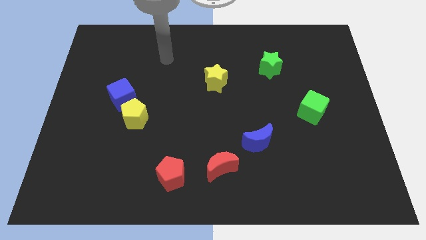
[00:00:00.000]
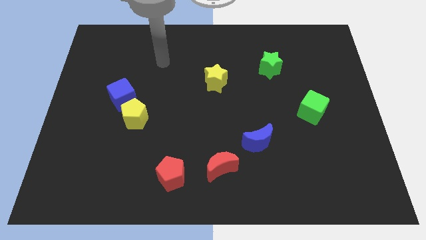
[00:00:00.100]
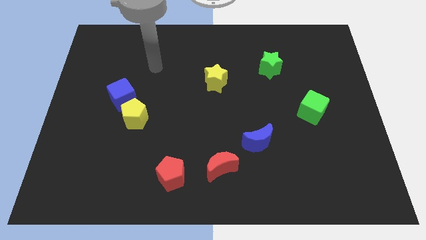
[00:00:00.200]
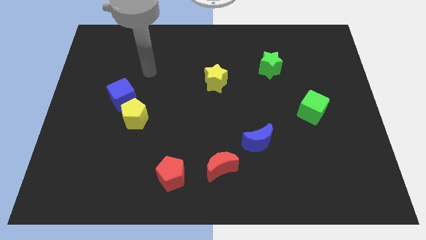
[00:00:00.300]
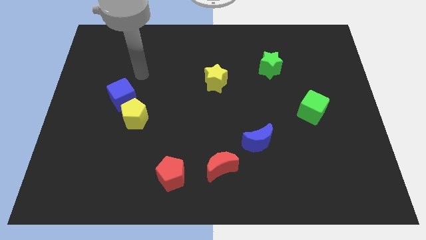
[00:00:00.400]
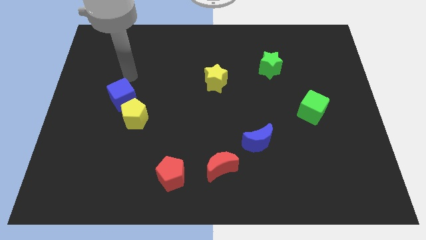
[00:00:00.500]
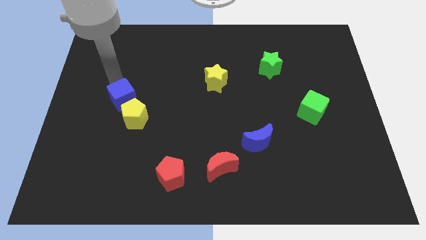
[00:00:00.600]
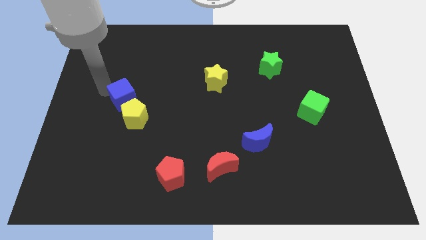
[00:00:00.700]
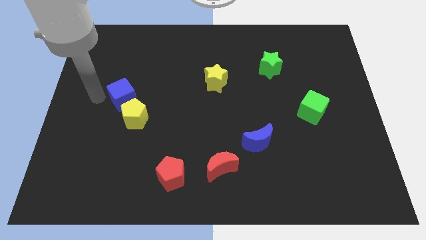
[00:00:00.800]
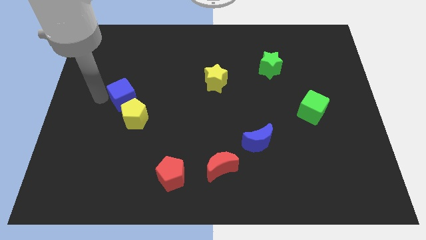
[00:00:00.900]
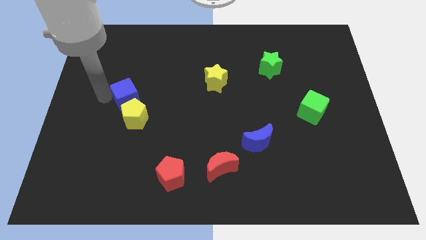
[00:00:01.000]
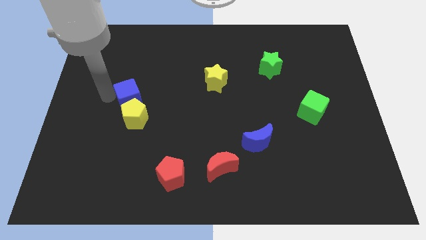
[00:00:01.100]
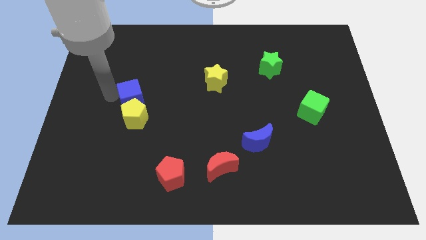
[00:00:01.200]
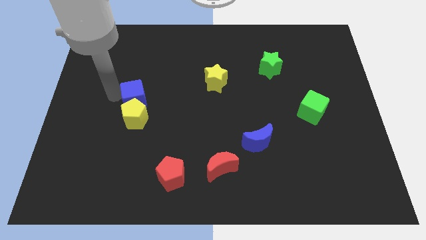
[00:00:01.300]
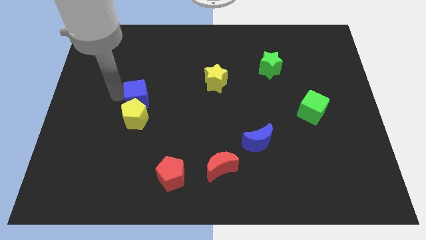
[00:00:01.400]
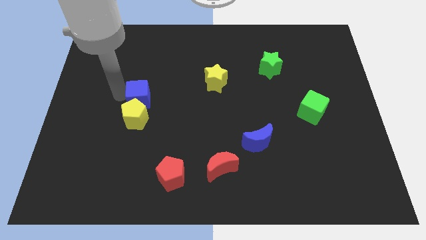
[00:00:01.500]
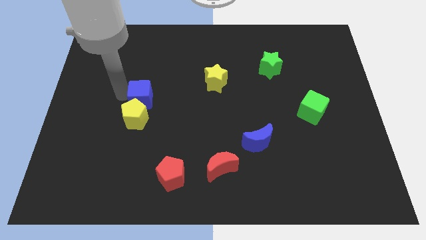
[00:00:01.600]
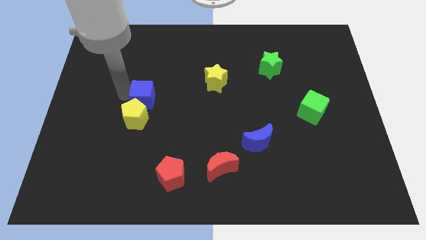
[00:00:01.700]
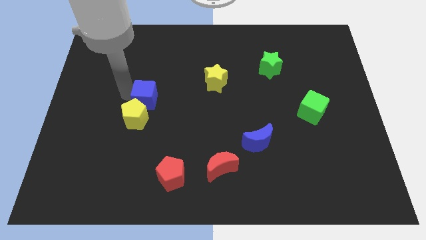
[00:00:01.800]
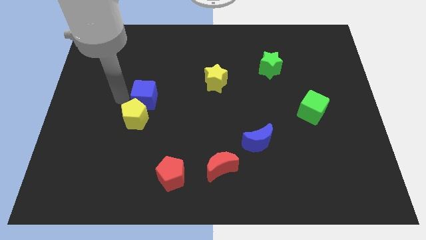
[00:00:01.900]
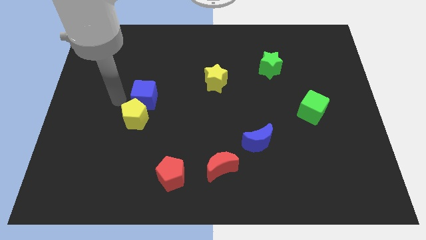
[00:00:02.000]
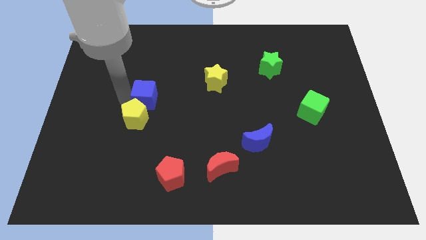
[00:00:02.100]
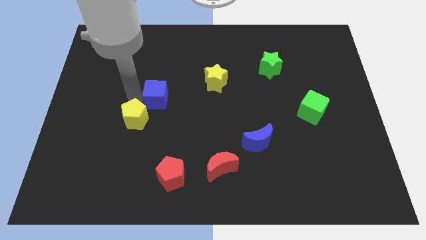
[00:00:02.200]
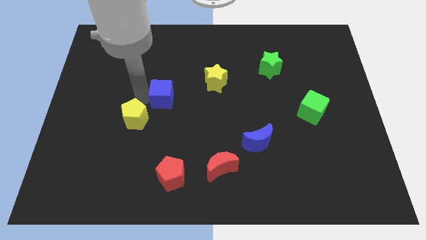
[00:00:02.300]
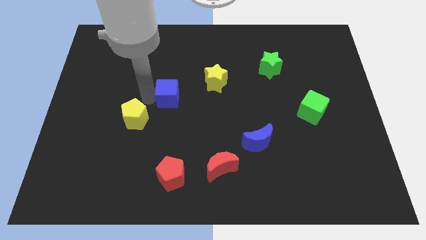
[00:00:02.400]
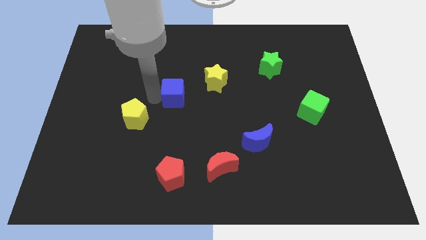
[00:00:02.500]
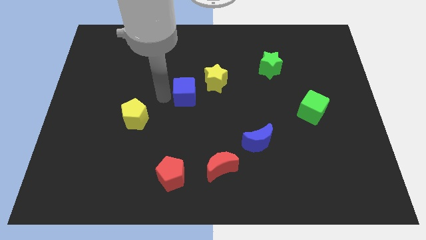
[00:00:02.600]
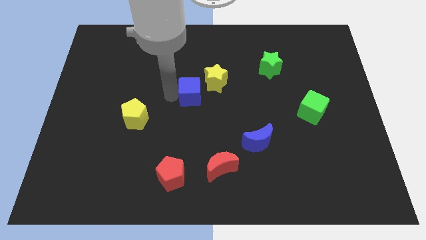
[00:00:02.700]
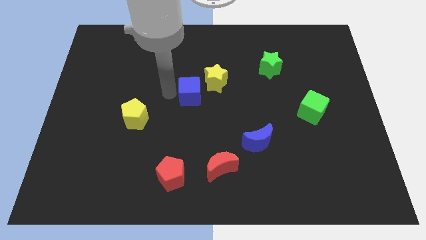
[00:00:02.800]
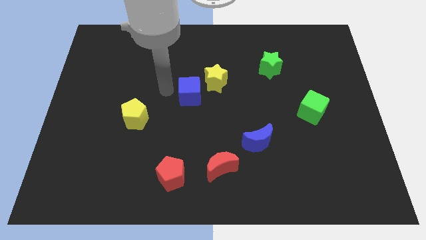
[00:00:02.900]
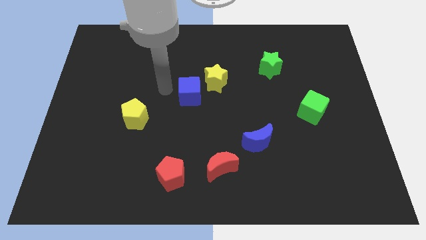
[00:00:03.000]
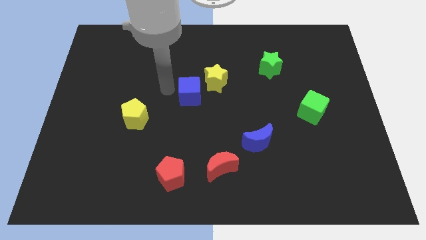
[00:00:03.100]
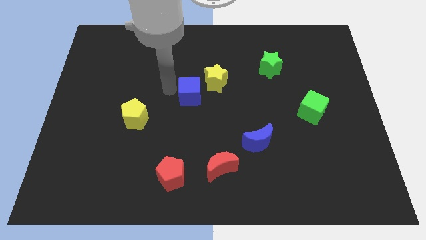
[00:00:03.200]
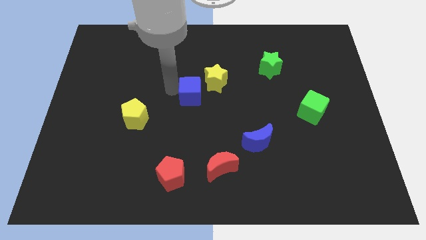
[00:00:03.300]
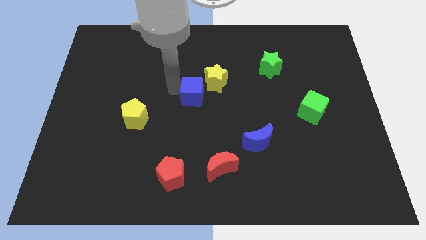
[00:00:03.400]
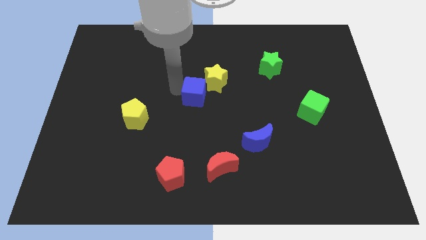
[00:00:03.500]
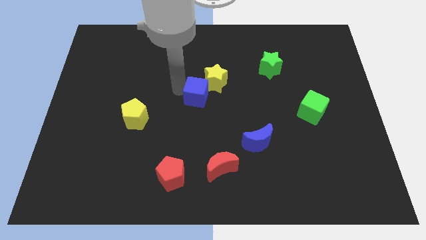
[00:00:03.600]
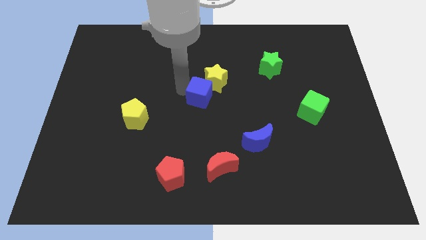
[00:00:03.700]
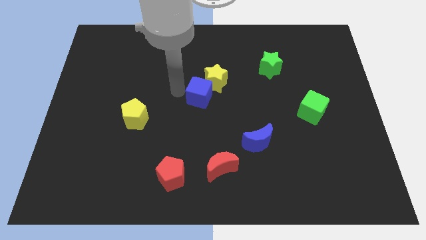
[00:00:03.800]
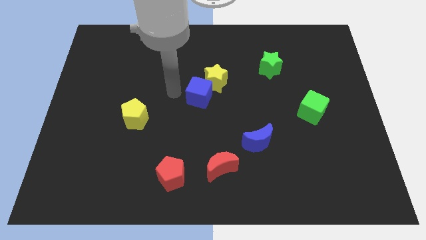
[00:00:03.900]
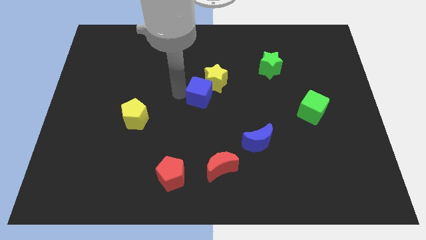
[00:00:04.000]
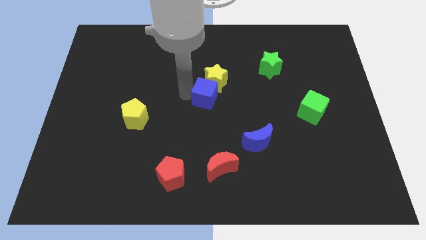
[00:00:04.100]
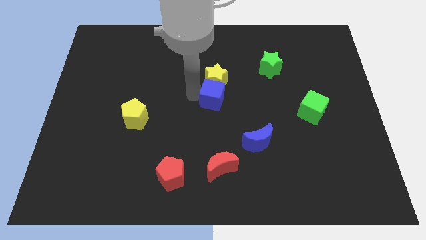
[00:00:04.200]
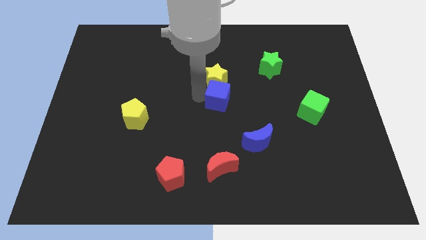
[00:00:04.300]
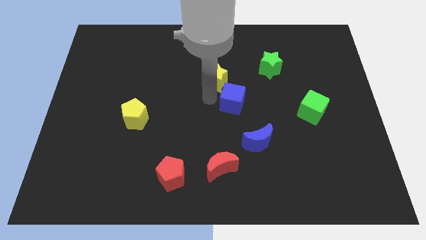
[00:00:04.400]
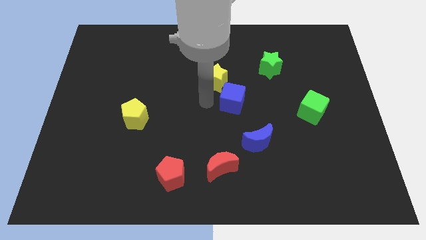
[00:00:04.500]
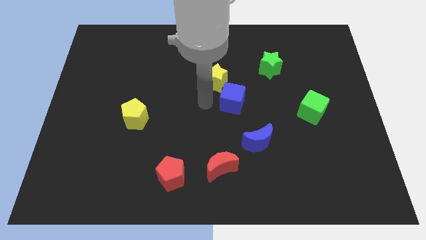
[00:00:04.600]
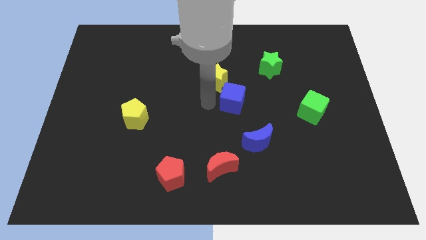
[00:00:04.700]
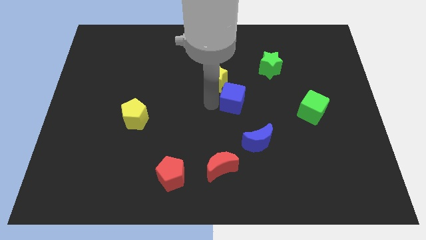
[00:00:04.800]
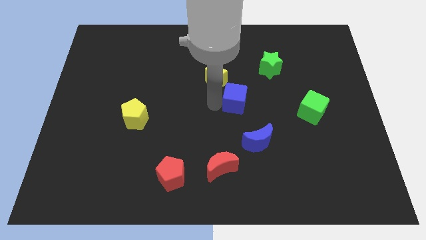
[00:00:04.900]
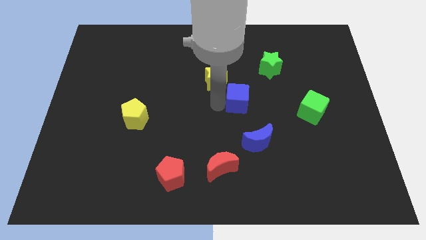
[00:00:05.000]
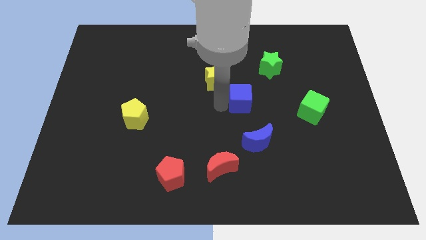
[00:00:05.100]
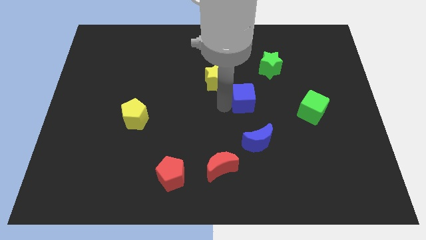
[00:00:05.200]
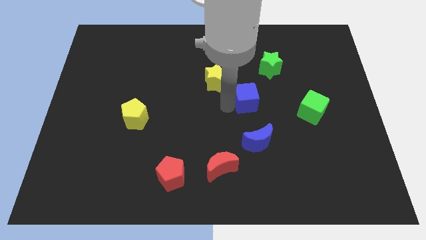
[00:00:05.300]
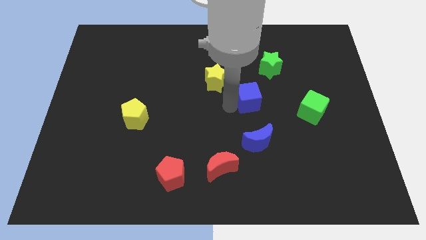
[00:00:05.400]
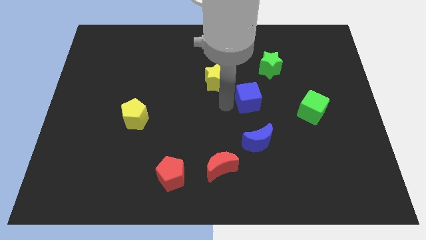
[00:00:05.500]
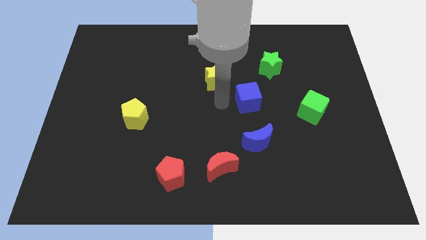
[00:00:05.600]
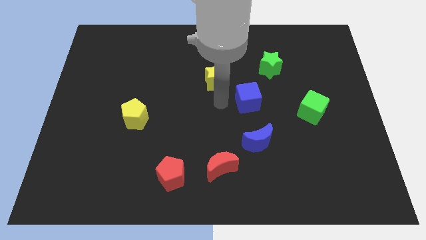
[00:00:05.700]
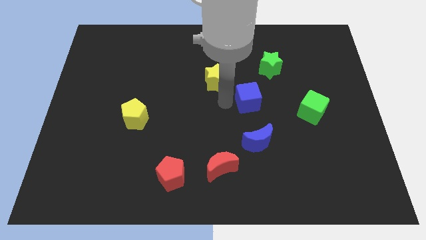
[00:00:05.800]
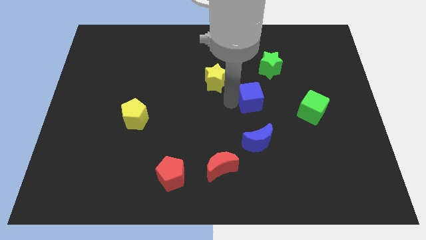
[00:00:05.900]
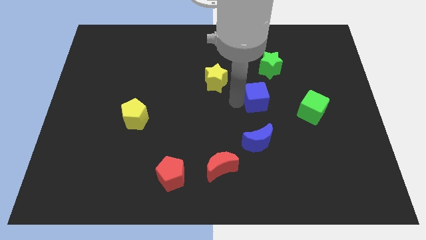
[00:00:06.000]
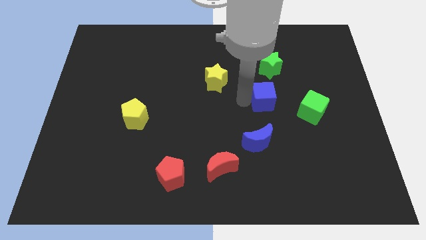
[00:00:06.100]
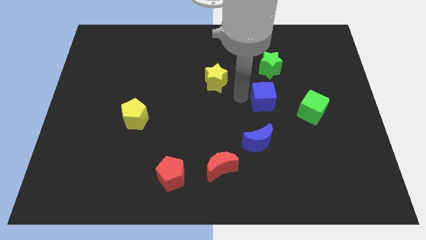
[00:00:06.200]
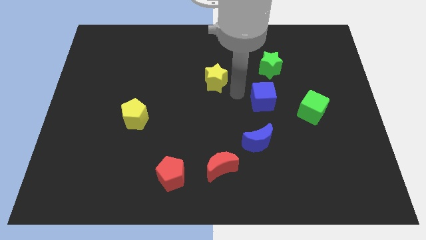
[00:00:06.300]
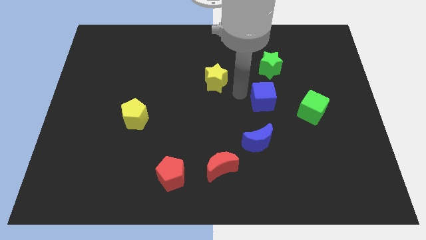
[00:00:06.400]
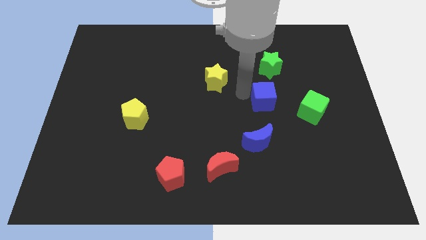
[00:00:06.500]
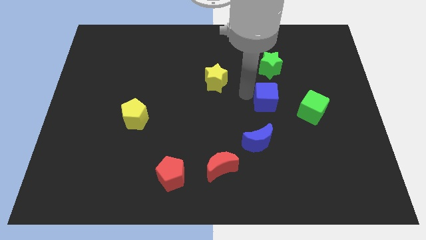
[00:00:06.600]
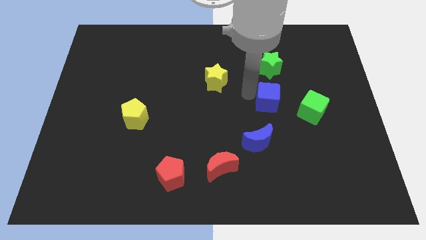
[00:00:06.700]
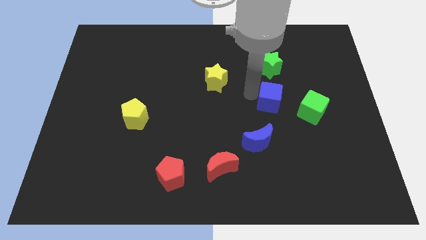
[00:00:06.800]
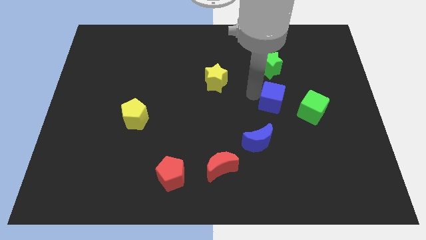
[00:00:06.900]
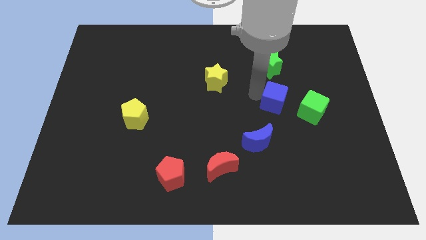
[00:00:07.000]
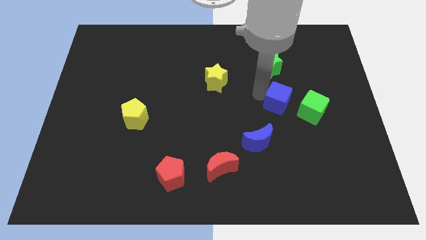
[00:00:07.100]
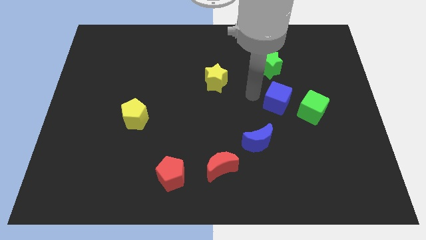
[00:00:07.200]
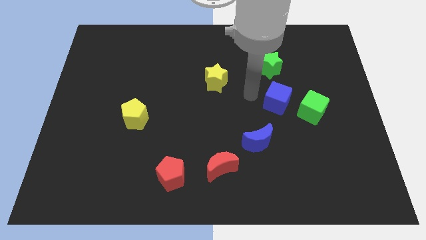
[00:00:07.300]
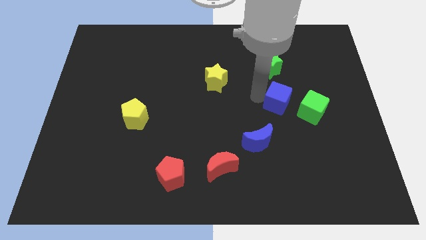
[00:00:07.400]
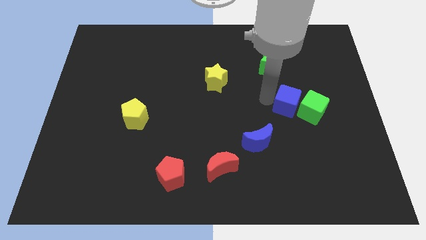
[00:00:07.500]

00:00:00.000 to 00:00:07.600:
push the blue cube towards the green cube
